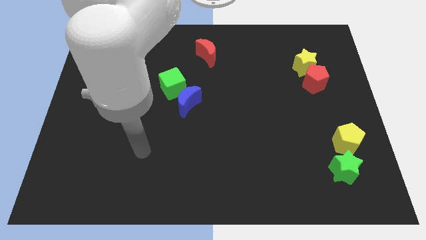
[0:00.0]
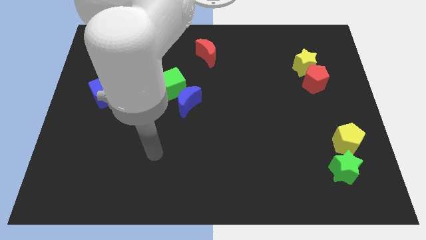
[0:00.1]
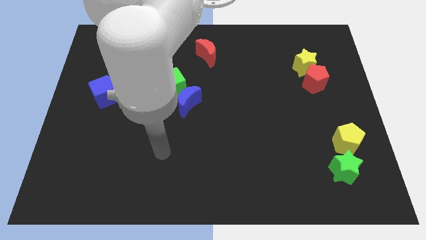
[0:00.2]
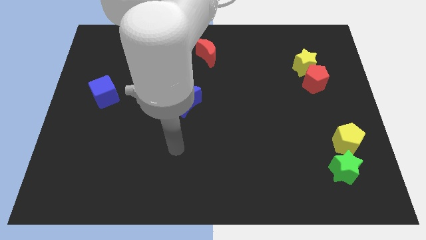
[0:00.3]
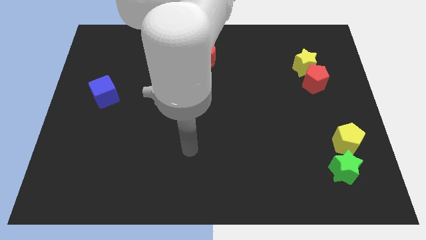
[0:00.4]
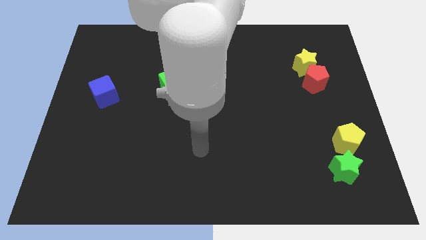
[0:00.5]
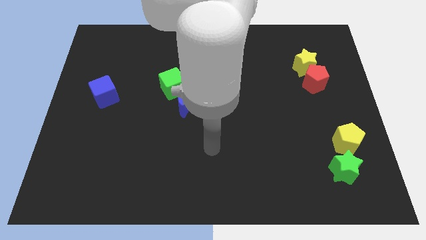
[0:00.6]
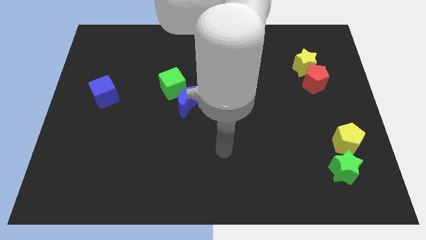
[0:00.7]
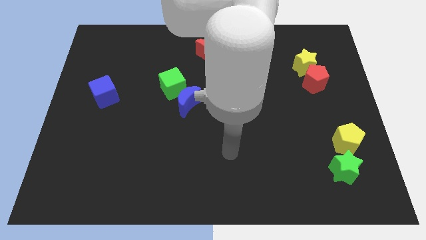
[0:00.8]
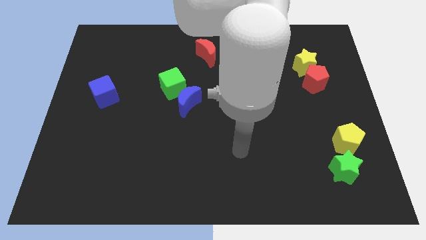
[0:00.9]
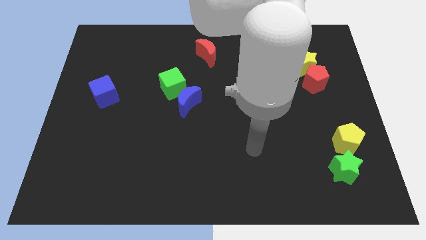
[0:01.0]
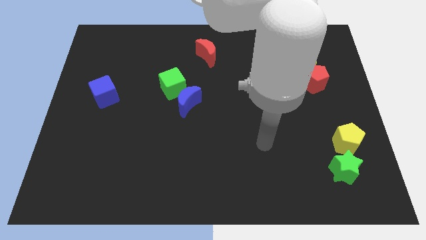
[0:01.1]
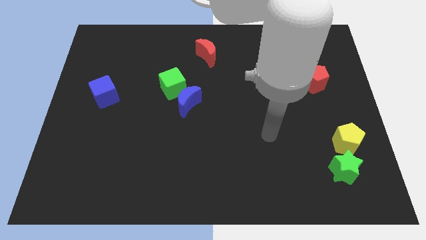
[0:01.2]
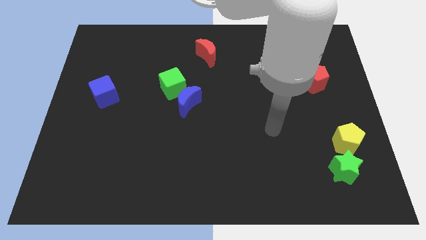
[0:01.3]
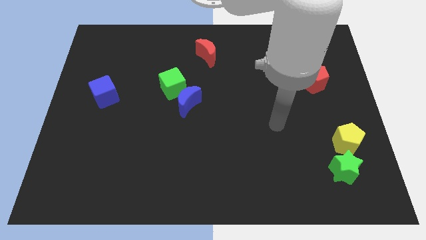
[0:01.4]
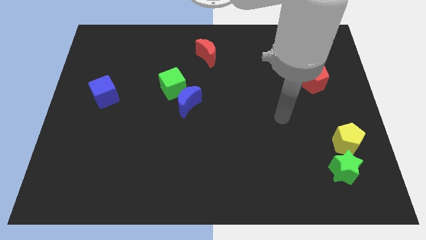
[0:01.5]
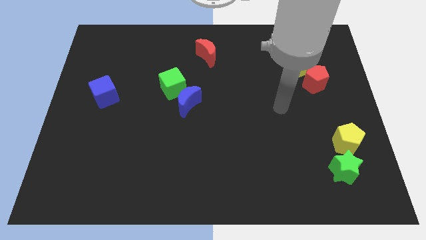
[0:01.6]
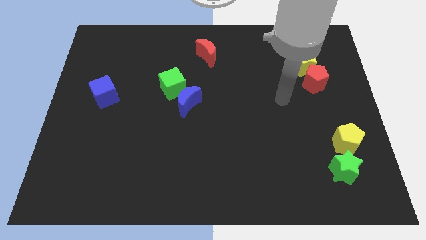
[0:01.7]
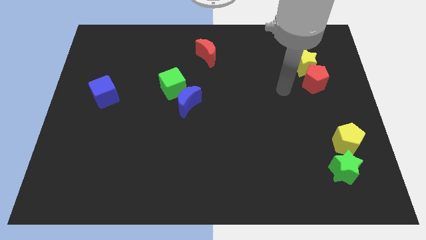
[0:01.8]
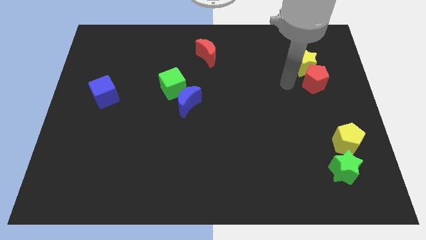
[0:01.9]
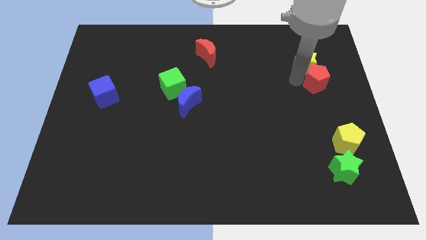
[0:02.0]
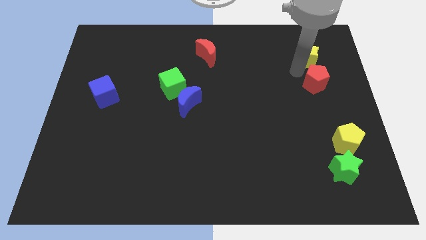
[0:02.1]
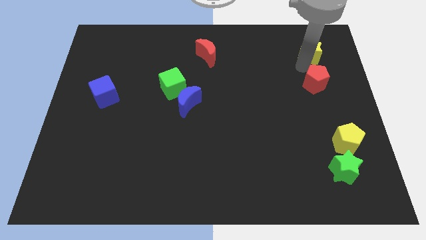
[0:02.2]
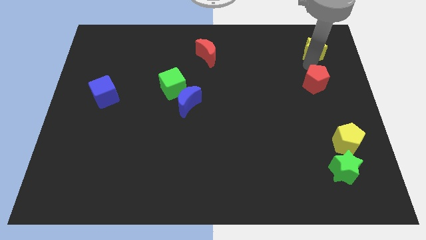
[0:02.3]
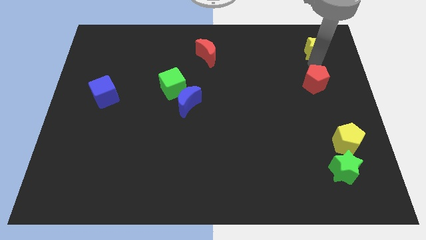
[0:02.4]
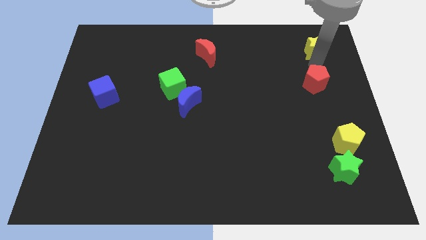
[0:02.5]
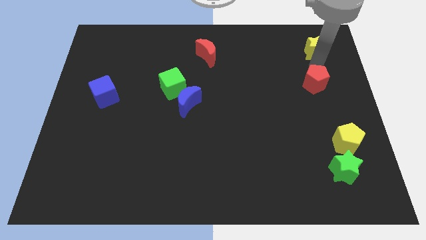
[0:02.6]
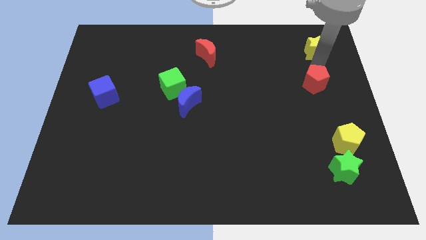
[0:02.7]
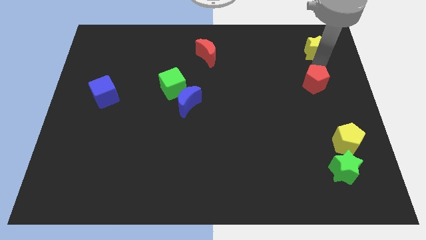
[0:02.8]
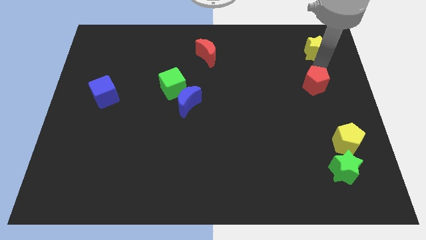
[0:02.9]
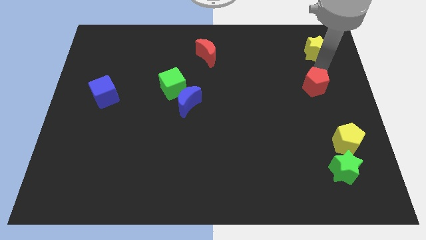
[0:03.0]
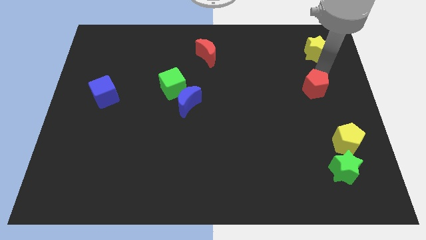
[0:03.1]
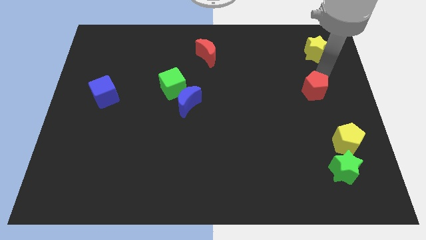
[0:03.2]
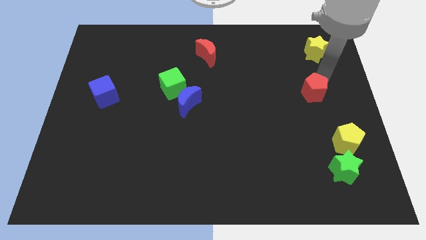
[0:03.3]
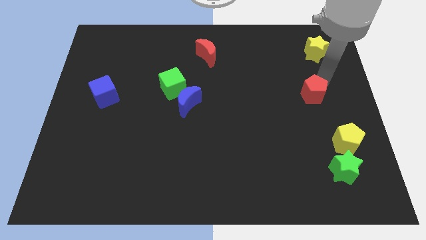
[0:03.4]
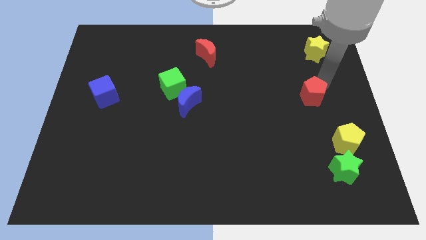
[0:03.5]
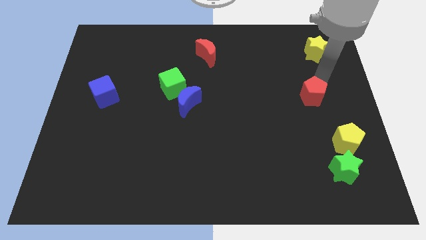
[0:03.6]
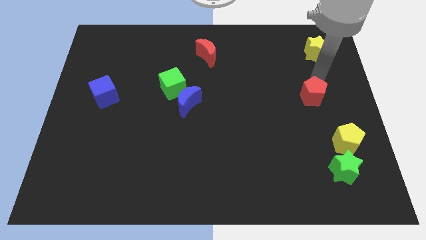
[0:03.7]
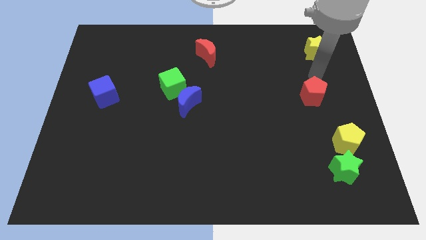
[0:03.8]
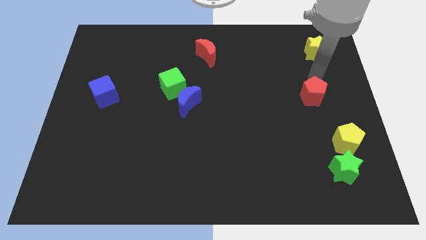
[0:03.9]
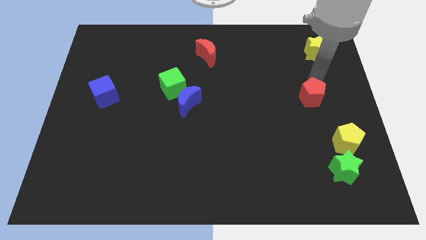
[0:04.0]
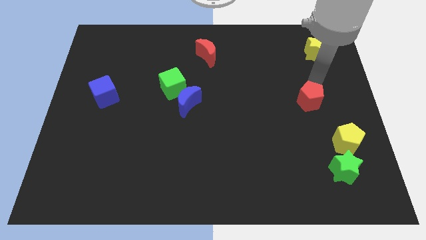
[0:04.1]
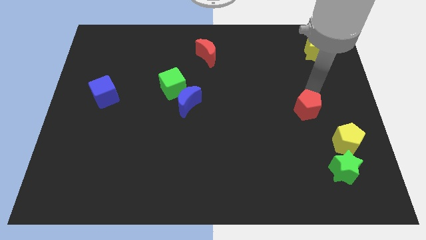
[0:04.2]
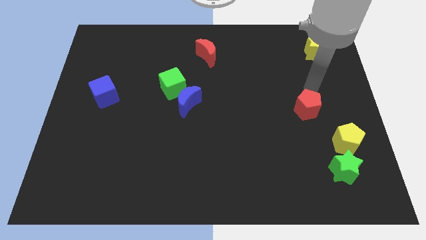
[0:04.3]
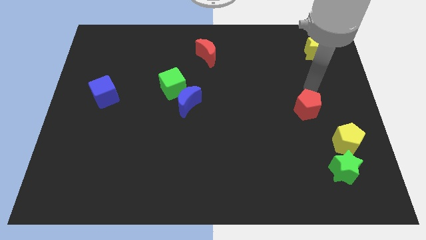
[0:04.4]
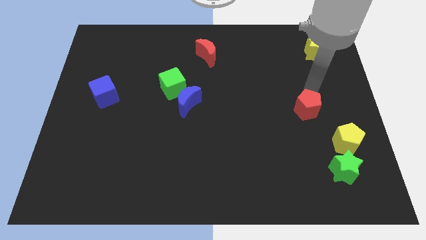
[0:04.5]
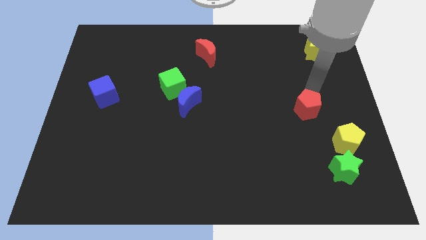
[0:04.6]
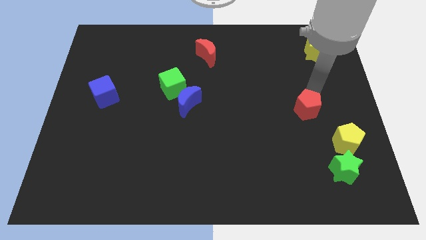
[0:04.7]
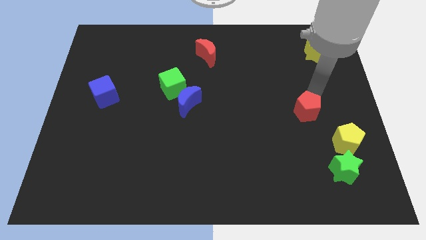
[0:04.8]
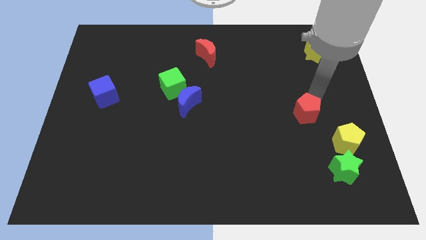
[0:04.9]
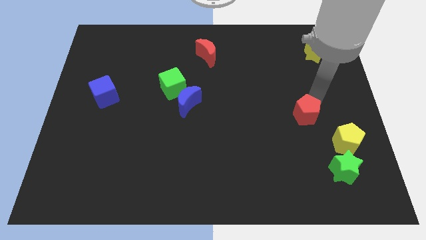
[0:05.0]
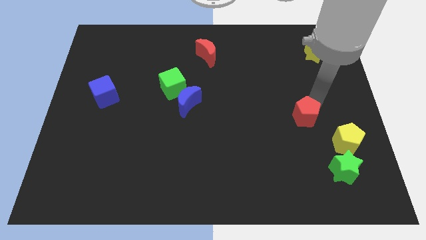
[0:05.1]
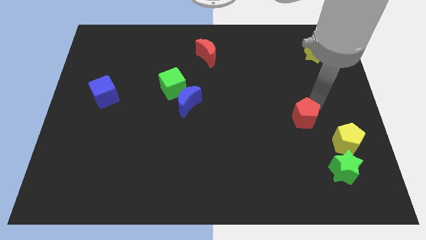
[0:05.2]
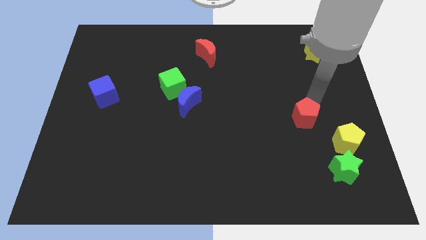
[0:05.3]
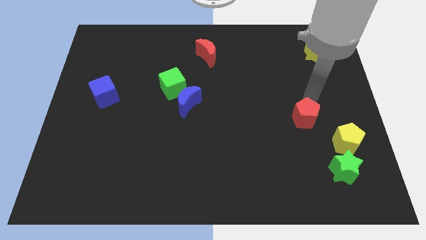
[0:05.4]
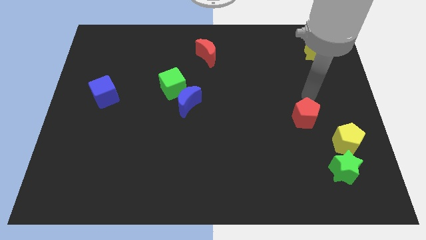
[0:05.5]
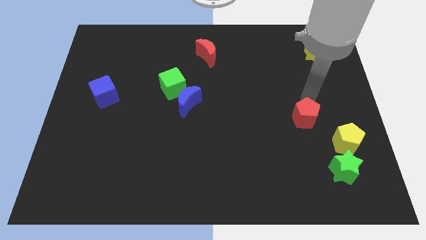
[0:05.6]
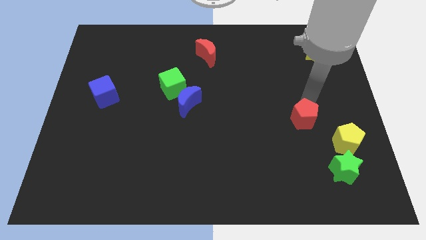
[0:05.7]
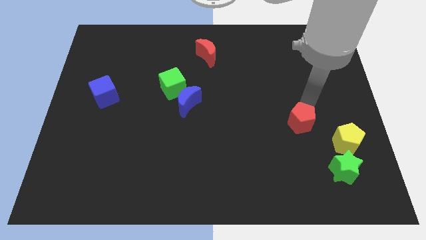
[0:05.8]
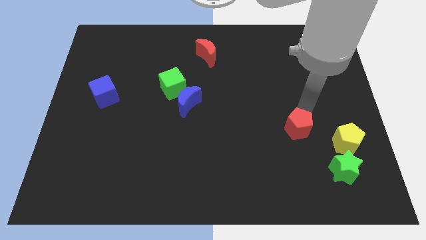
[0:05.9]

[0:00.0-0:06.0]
push the red pentagon to the left side of the yellow pentagon

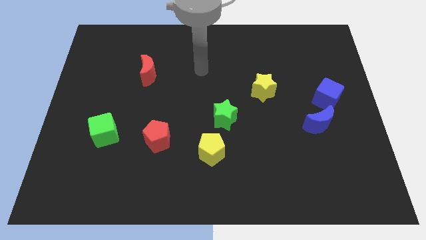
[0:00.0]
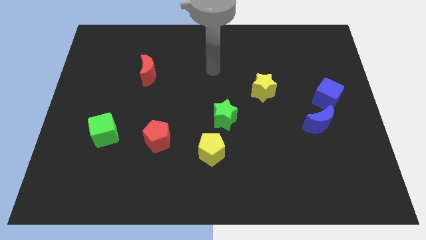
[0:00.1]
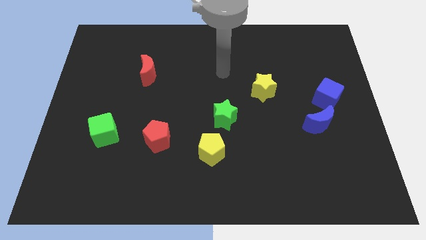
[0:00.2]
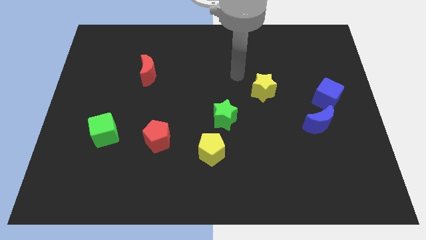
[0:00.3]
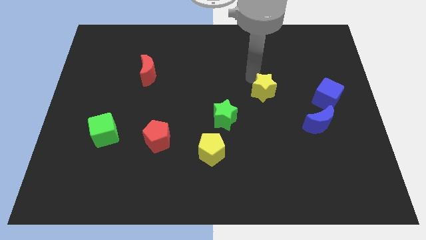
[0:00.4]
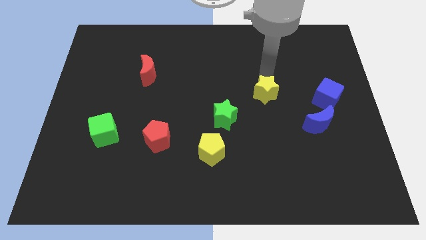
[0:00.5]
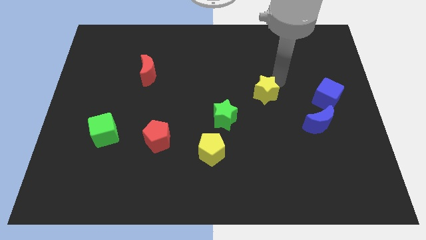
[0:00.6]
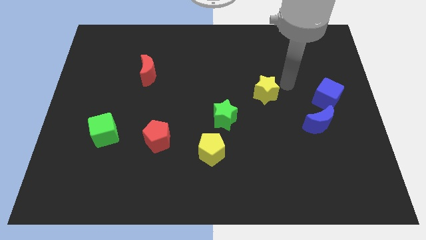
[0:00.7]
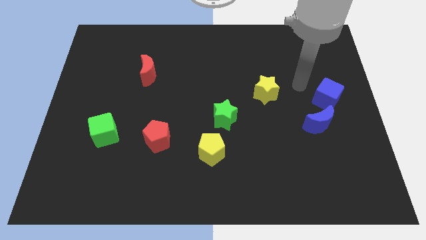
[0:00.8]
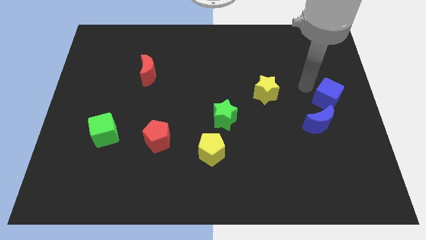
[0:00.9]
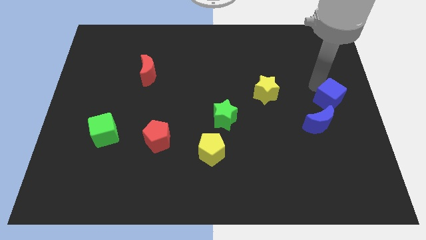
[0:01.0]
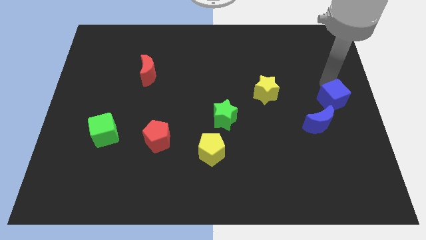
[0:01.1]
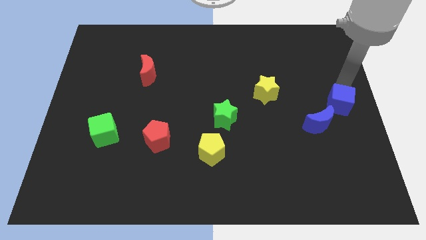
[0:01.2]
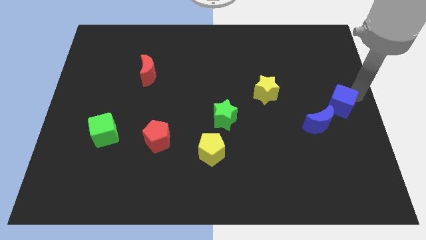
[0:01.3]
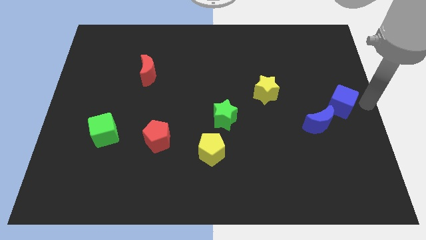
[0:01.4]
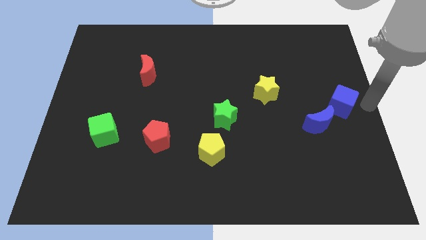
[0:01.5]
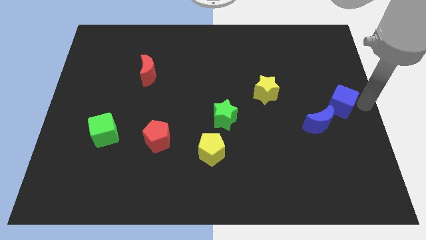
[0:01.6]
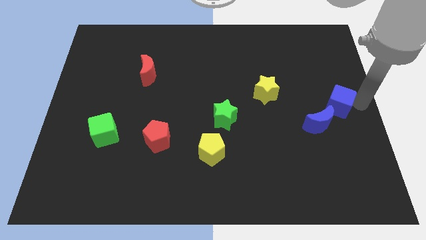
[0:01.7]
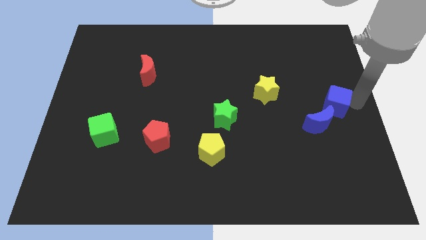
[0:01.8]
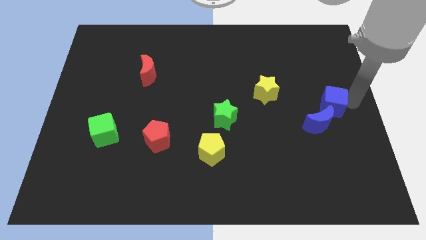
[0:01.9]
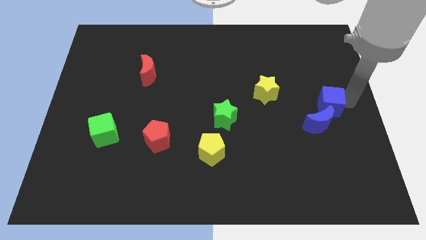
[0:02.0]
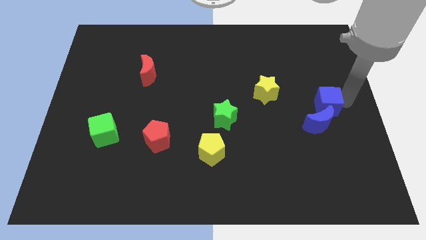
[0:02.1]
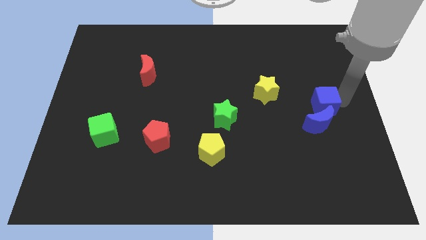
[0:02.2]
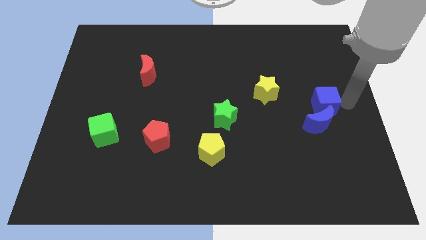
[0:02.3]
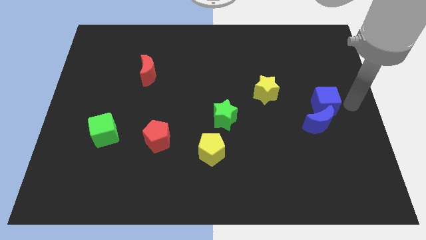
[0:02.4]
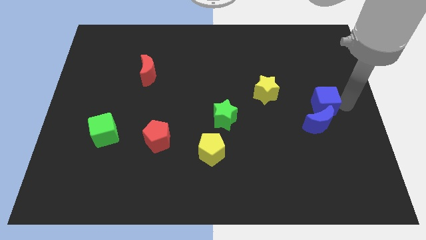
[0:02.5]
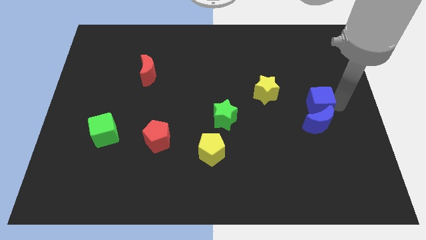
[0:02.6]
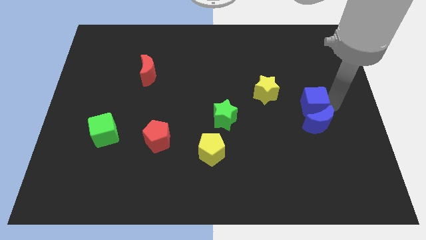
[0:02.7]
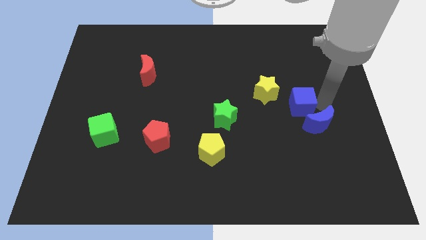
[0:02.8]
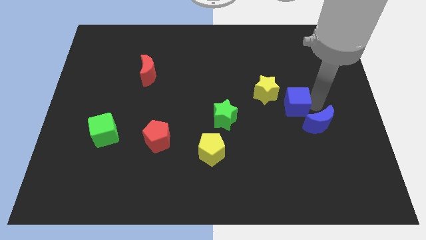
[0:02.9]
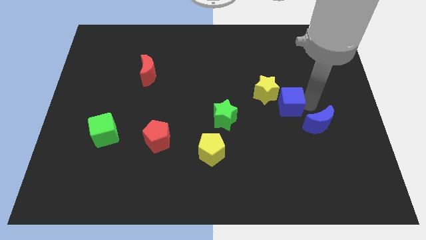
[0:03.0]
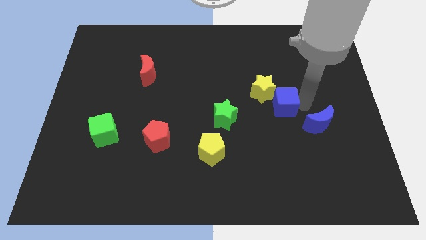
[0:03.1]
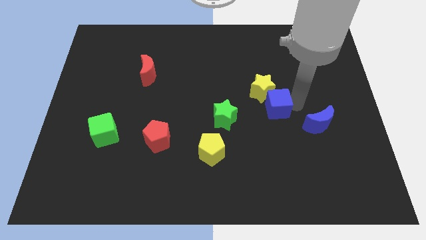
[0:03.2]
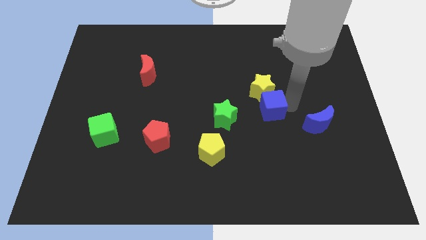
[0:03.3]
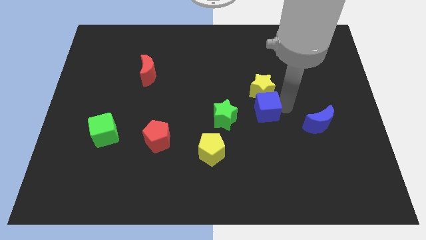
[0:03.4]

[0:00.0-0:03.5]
push the blue cube to the bottom left of the yellow star
